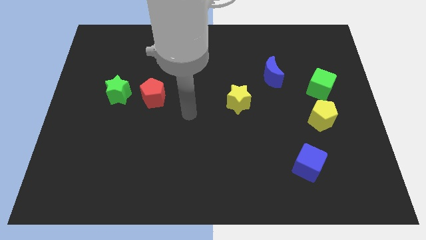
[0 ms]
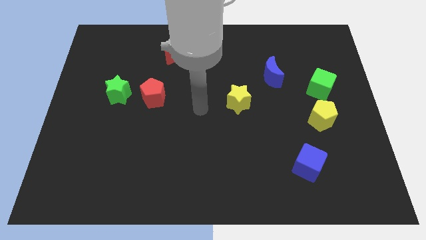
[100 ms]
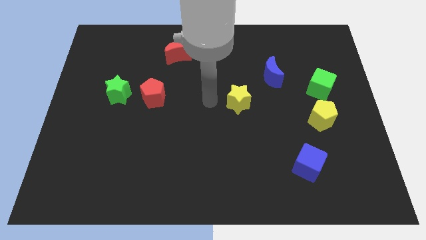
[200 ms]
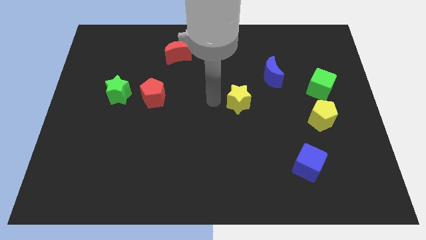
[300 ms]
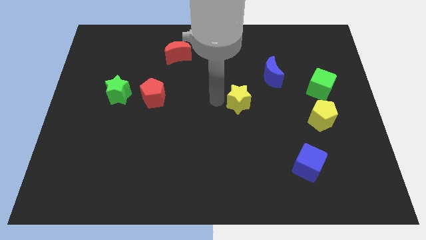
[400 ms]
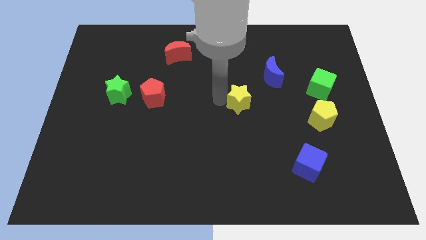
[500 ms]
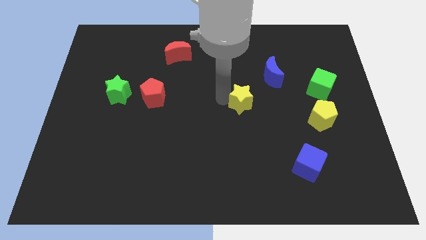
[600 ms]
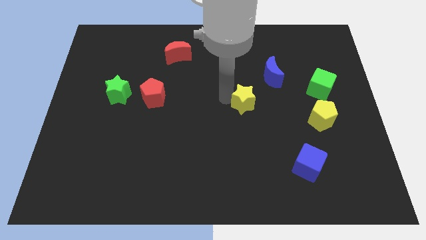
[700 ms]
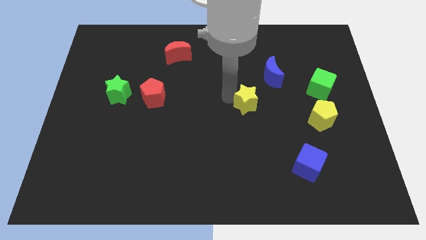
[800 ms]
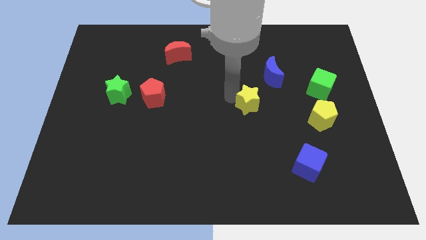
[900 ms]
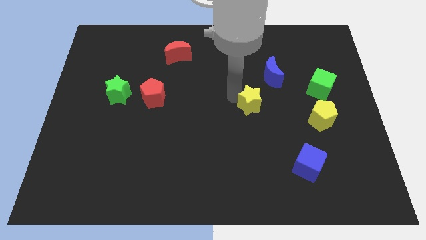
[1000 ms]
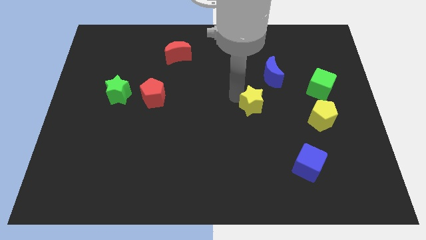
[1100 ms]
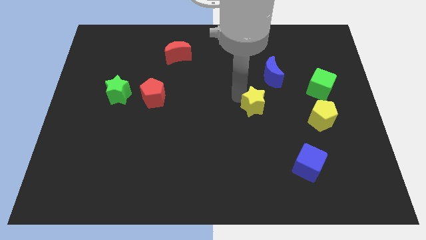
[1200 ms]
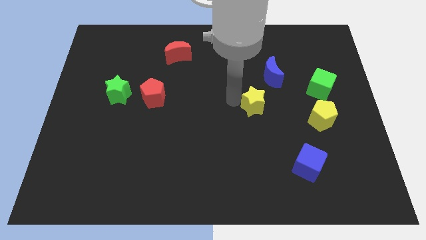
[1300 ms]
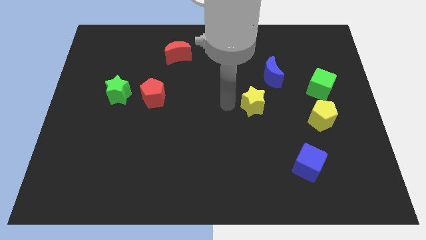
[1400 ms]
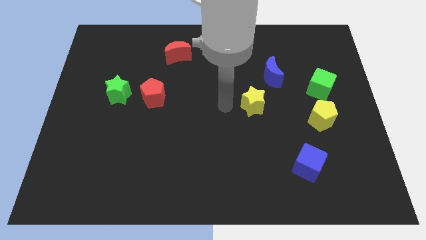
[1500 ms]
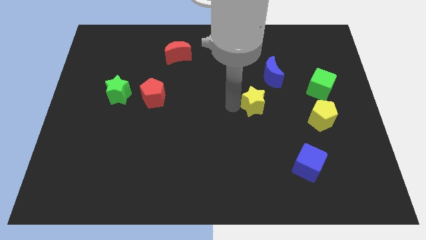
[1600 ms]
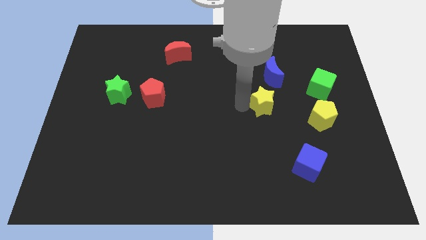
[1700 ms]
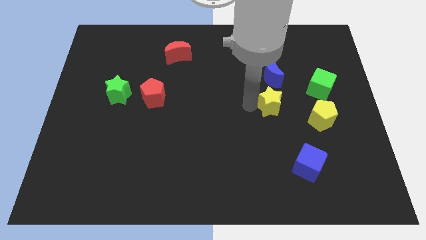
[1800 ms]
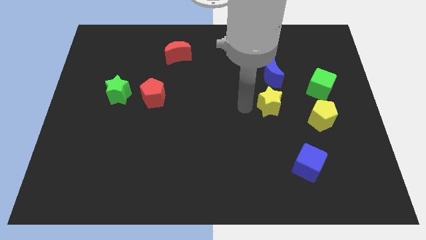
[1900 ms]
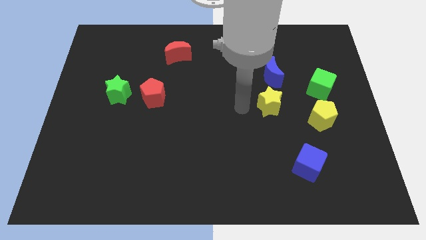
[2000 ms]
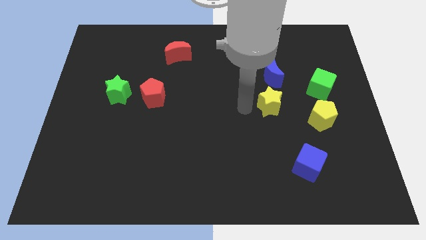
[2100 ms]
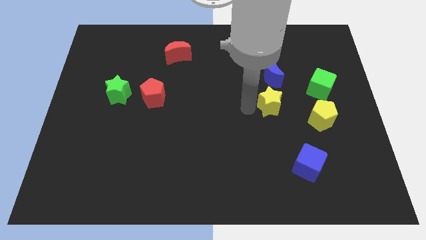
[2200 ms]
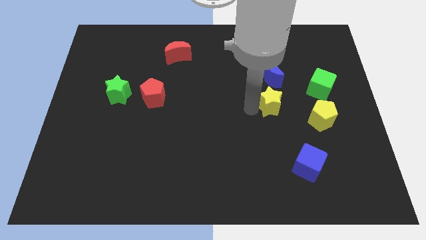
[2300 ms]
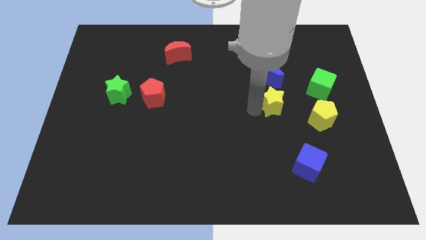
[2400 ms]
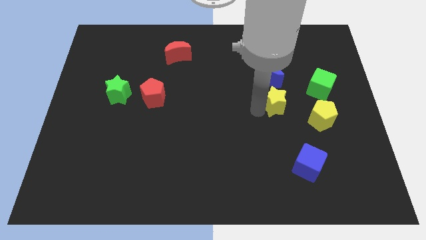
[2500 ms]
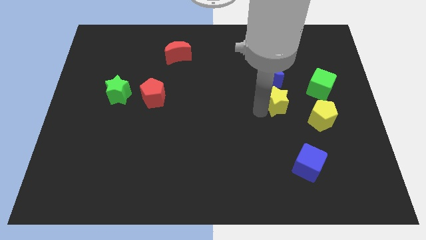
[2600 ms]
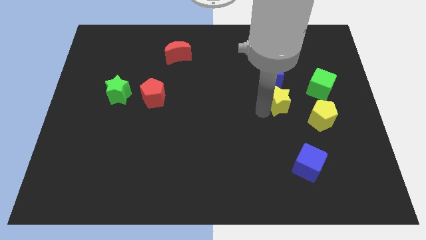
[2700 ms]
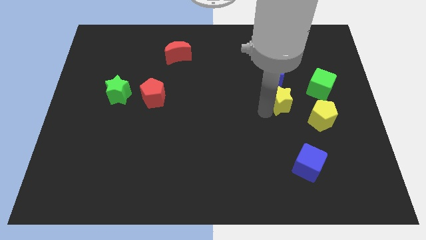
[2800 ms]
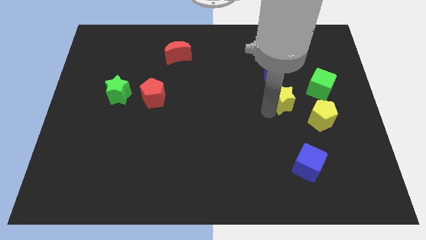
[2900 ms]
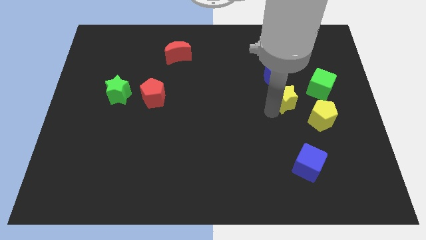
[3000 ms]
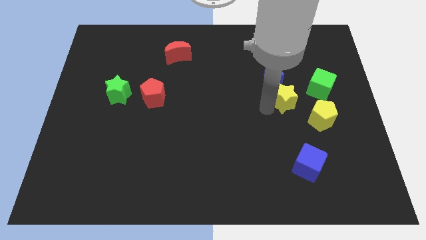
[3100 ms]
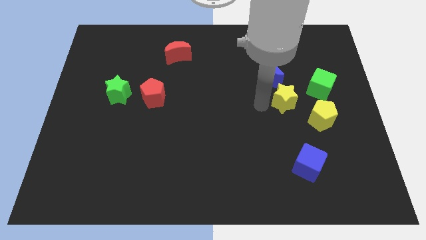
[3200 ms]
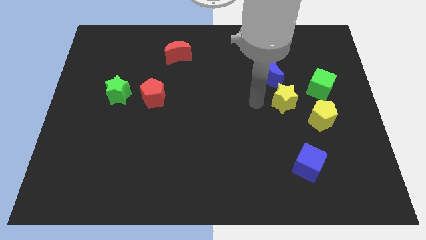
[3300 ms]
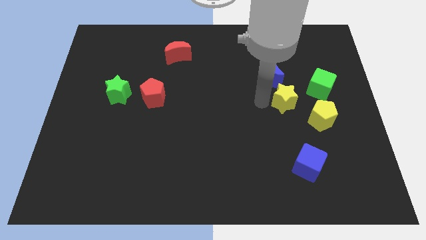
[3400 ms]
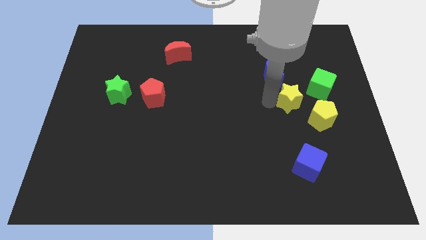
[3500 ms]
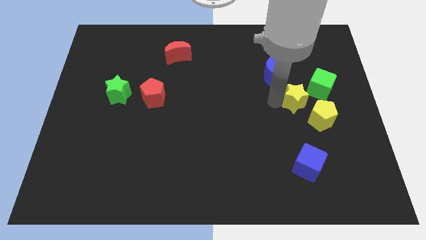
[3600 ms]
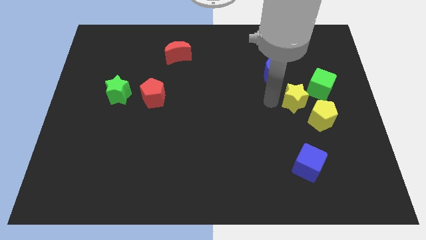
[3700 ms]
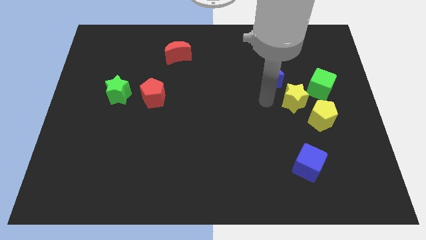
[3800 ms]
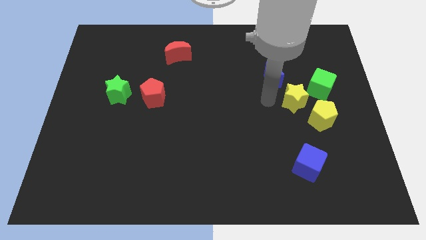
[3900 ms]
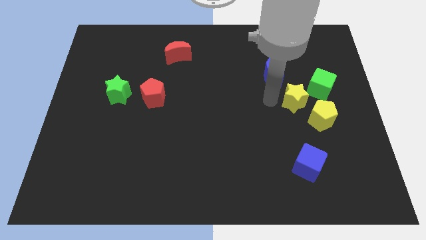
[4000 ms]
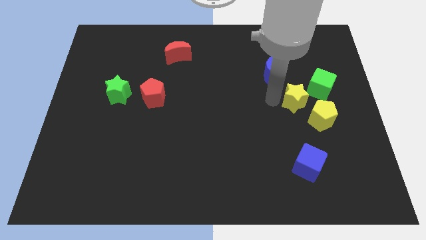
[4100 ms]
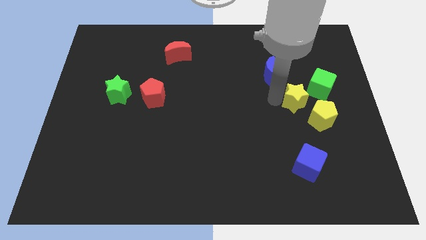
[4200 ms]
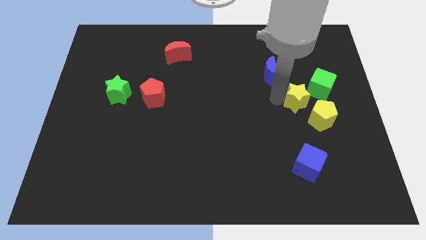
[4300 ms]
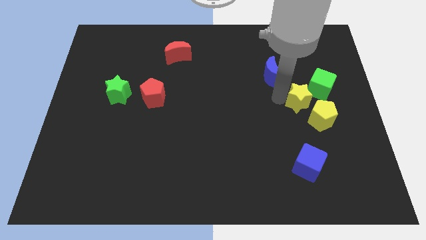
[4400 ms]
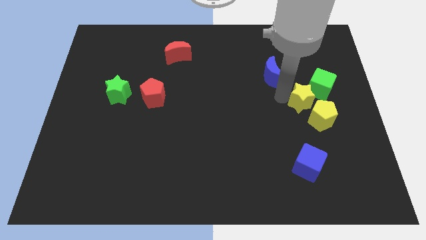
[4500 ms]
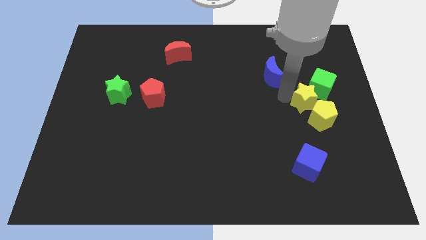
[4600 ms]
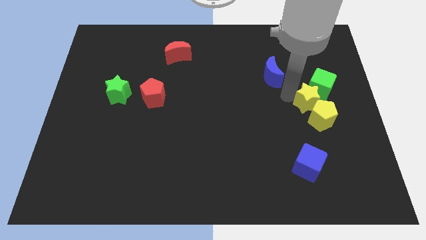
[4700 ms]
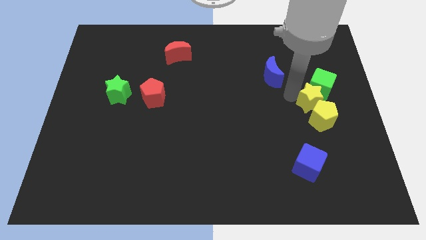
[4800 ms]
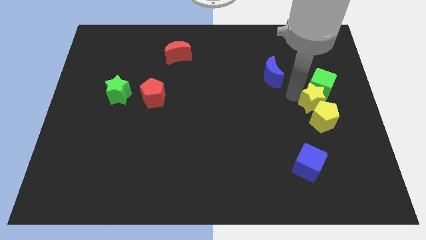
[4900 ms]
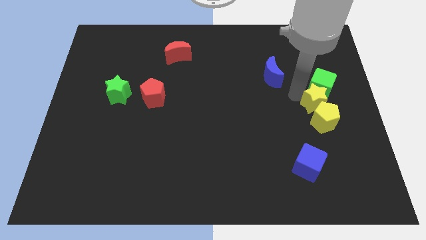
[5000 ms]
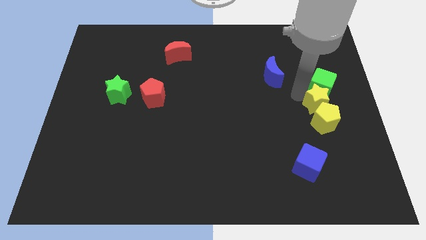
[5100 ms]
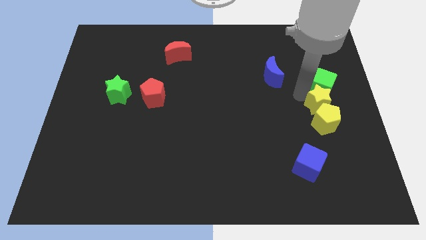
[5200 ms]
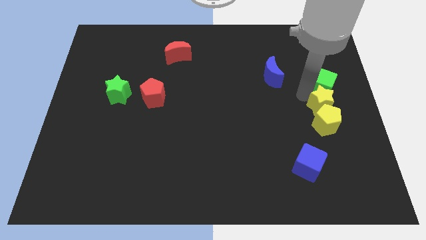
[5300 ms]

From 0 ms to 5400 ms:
move the yellow star to the center right

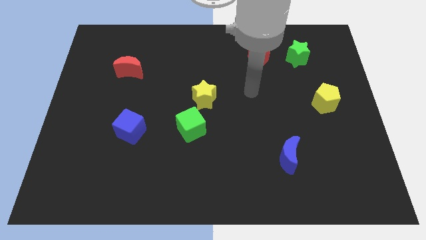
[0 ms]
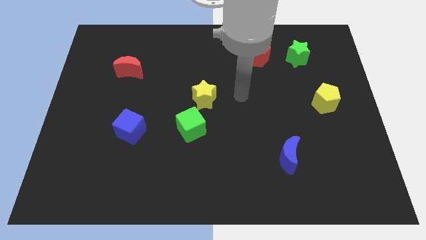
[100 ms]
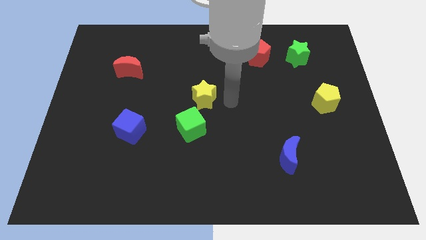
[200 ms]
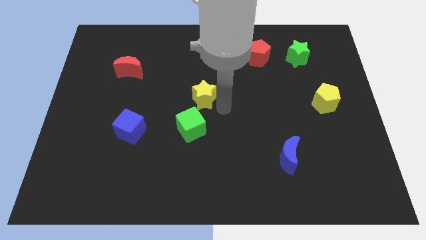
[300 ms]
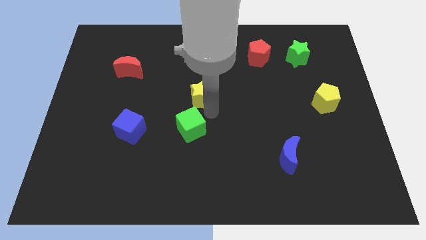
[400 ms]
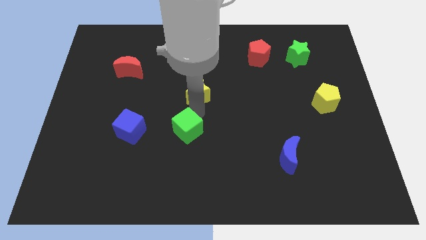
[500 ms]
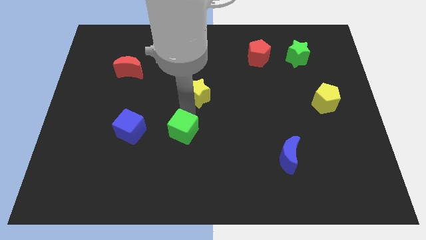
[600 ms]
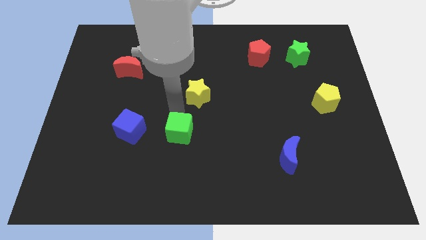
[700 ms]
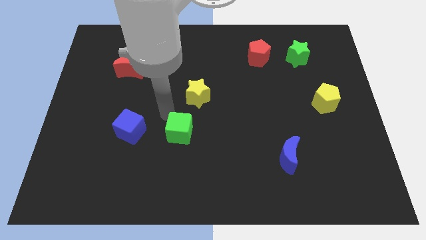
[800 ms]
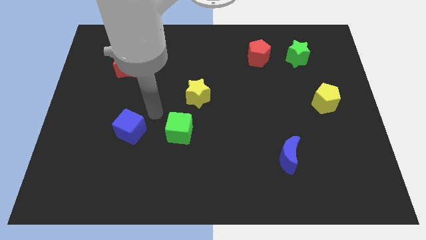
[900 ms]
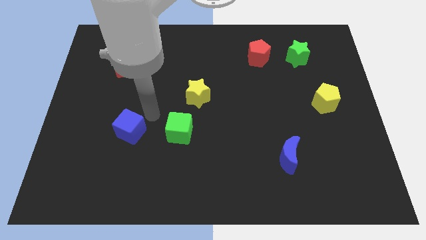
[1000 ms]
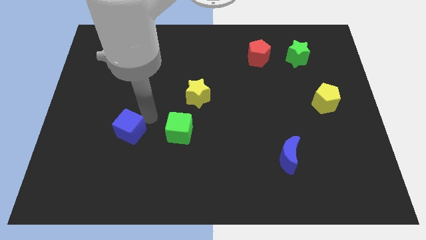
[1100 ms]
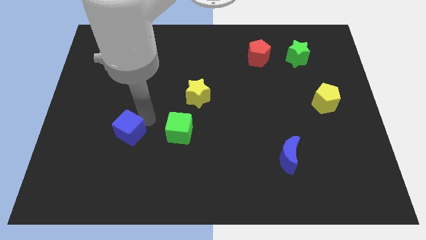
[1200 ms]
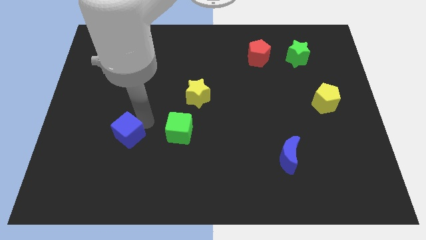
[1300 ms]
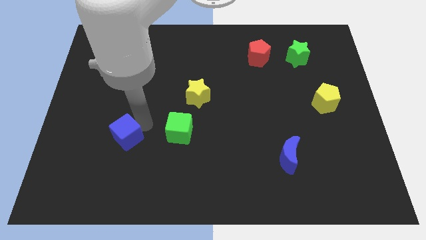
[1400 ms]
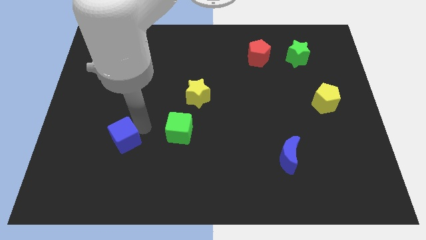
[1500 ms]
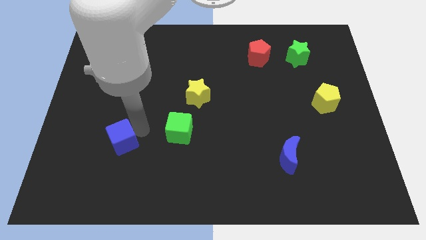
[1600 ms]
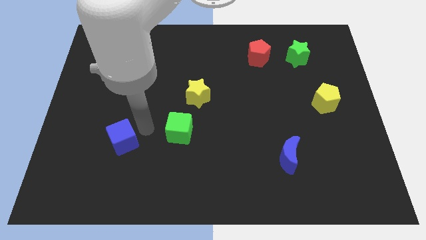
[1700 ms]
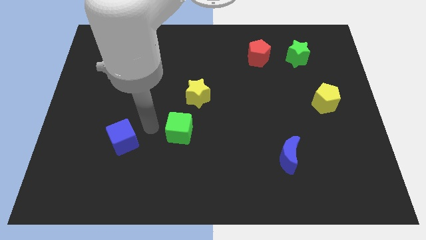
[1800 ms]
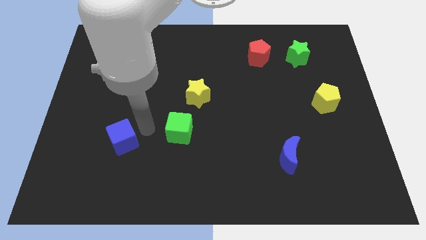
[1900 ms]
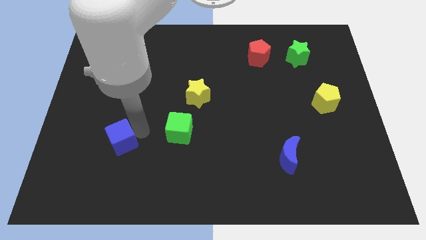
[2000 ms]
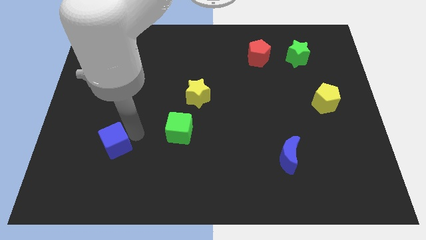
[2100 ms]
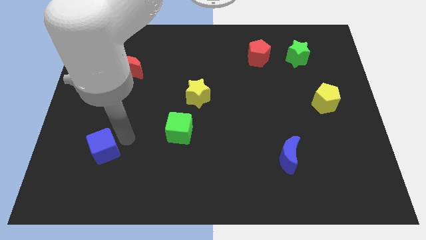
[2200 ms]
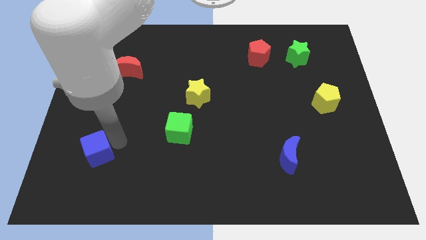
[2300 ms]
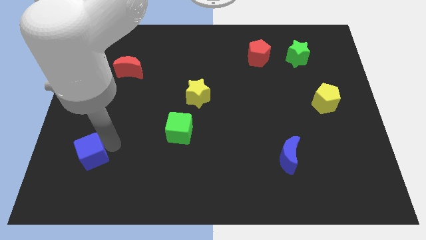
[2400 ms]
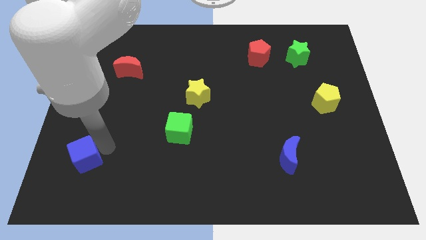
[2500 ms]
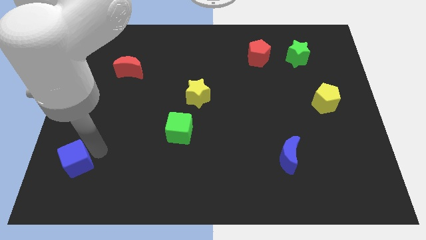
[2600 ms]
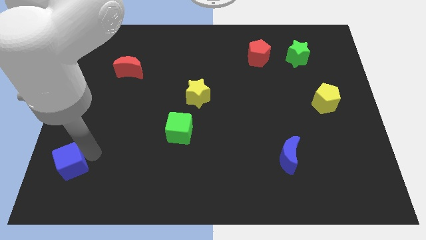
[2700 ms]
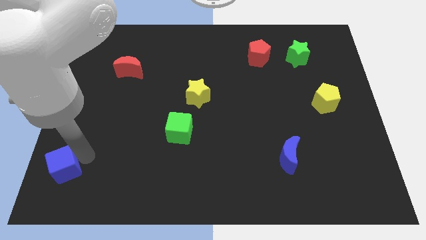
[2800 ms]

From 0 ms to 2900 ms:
push the blue cube to the bottom left corner

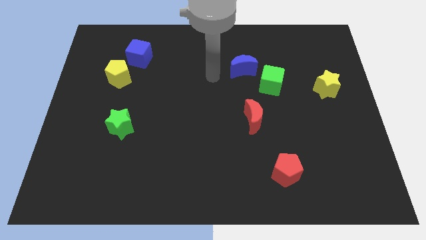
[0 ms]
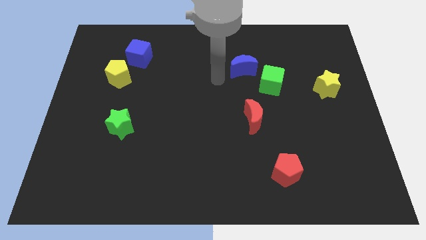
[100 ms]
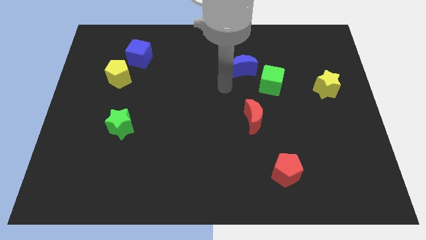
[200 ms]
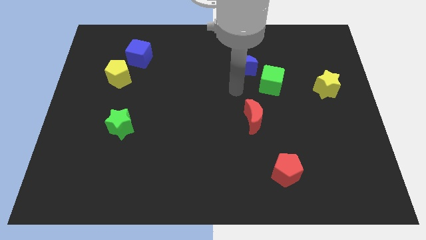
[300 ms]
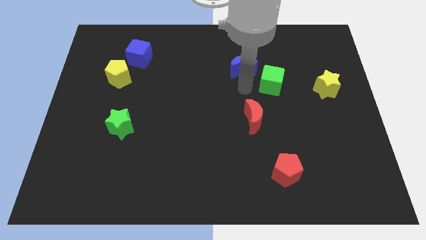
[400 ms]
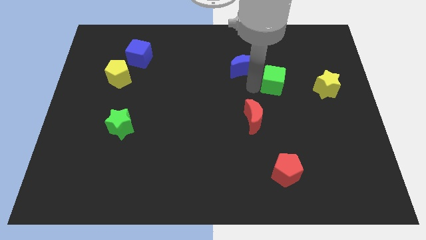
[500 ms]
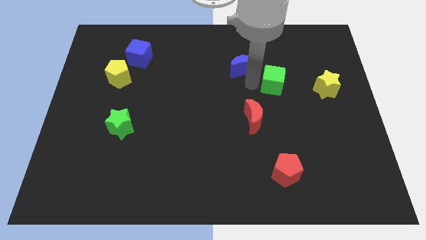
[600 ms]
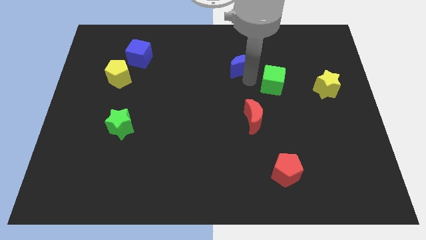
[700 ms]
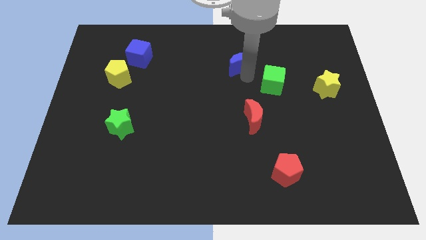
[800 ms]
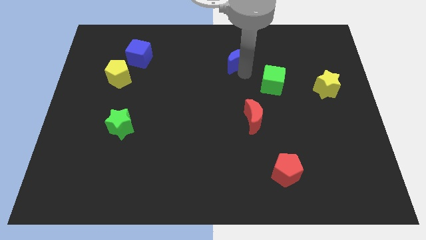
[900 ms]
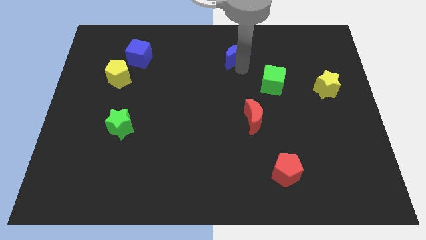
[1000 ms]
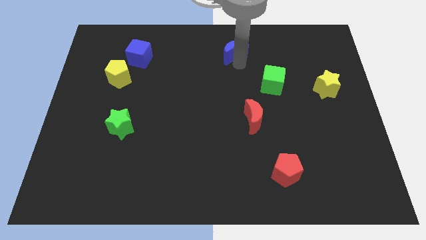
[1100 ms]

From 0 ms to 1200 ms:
move the blue moon to the top
